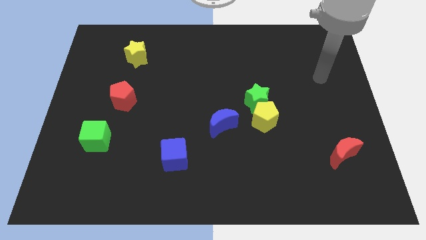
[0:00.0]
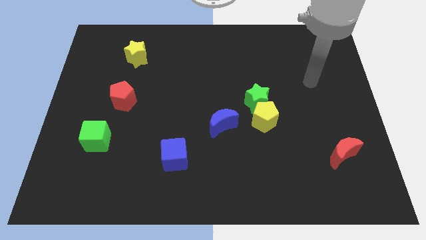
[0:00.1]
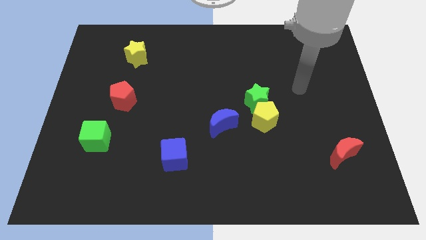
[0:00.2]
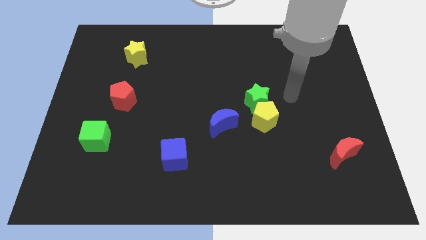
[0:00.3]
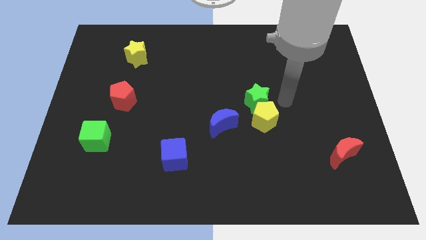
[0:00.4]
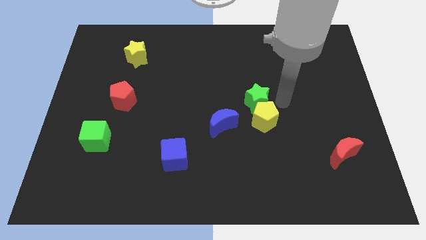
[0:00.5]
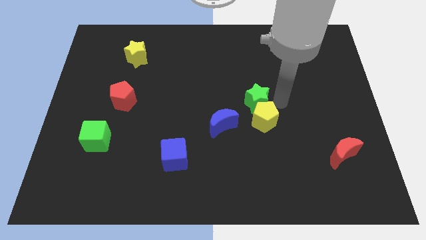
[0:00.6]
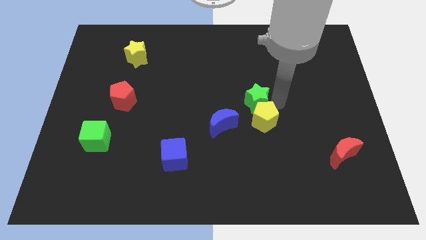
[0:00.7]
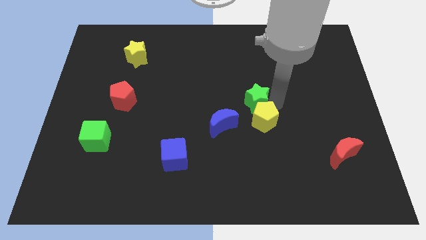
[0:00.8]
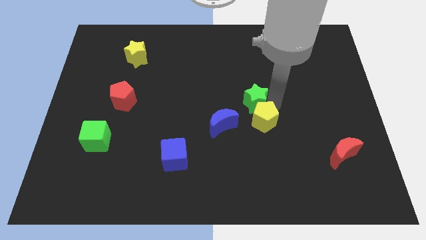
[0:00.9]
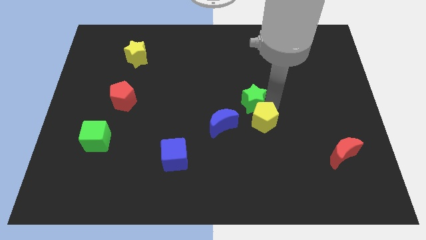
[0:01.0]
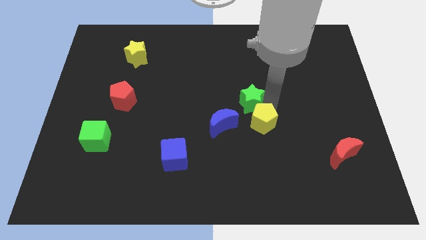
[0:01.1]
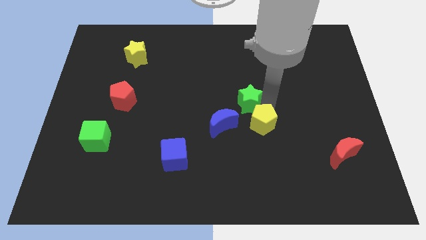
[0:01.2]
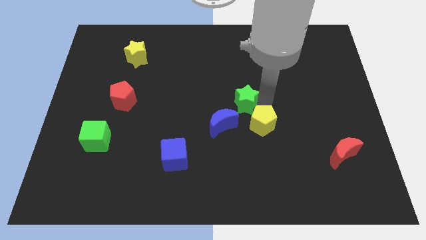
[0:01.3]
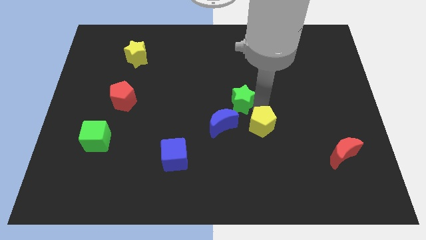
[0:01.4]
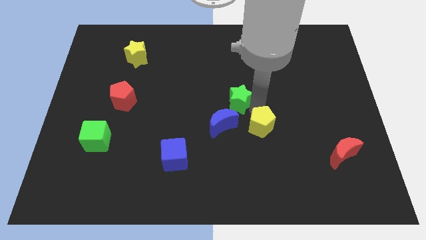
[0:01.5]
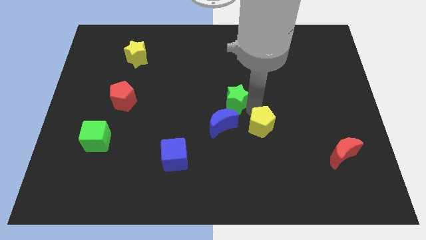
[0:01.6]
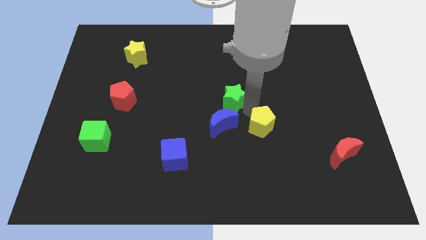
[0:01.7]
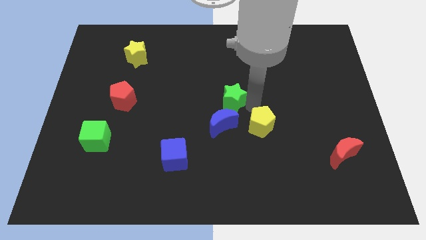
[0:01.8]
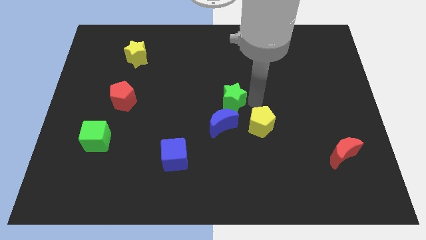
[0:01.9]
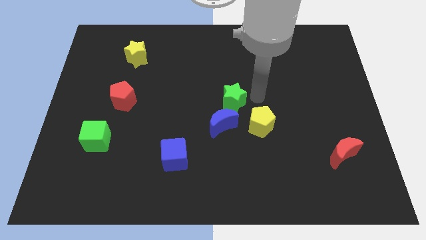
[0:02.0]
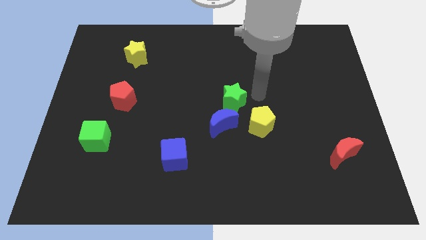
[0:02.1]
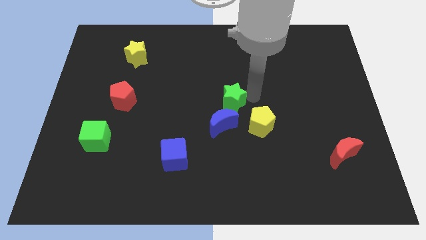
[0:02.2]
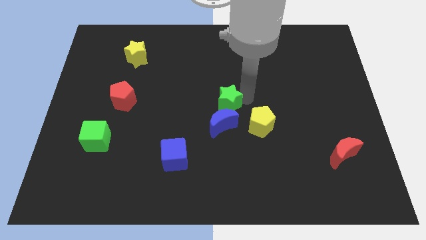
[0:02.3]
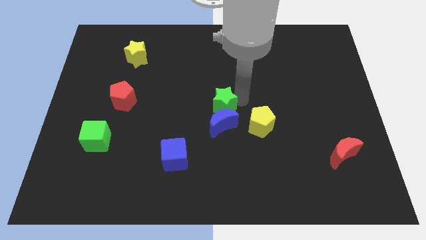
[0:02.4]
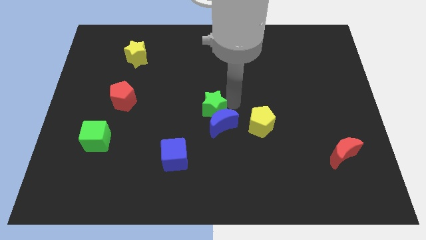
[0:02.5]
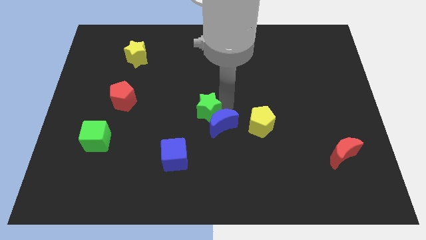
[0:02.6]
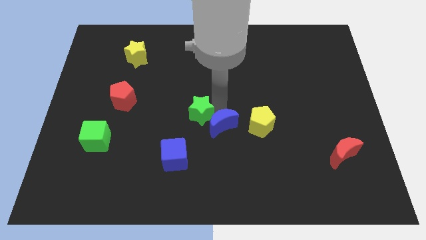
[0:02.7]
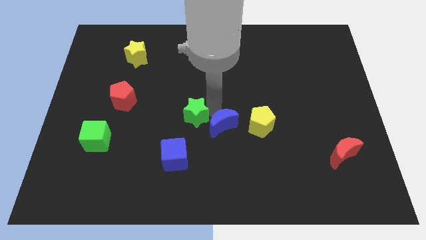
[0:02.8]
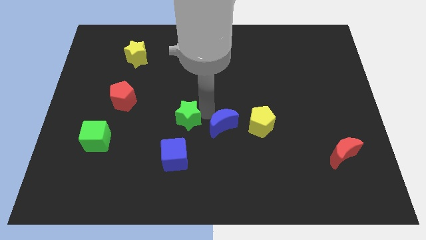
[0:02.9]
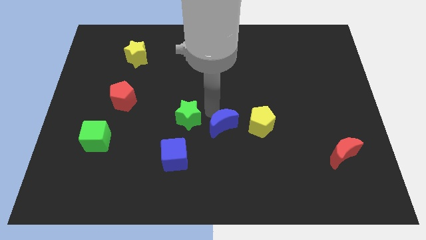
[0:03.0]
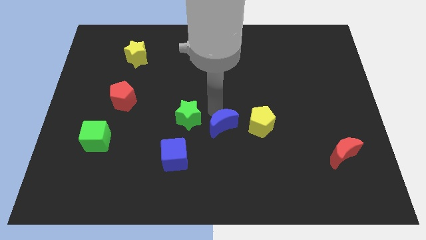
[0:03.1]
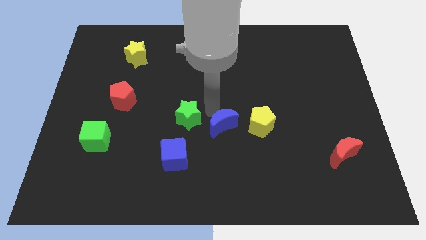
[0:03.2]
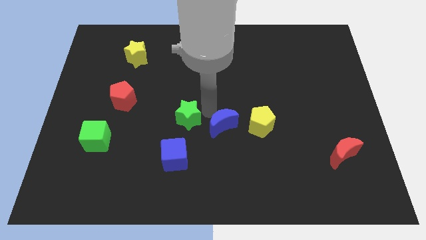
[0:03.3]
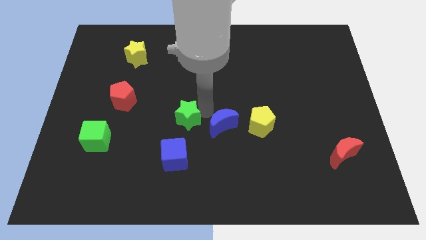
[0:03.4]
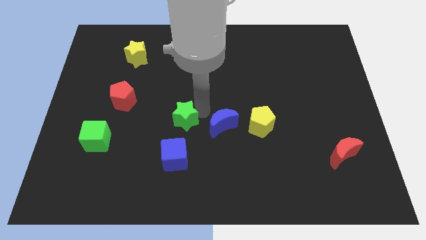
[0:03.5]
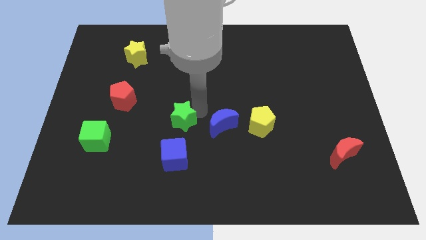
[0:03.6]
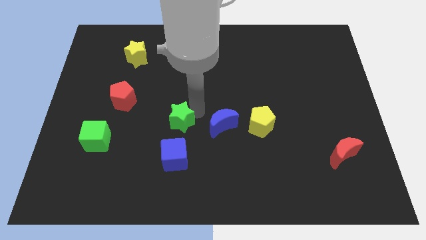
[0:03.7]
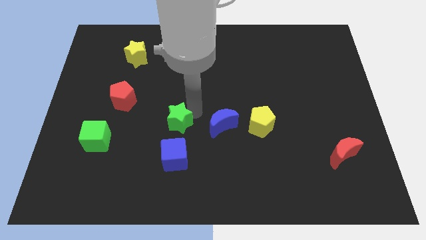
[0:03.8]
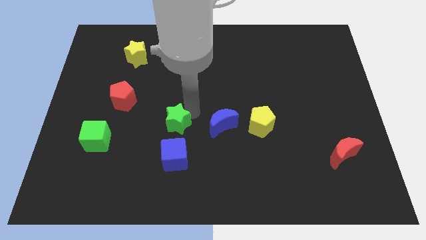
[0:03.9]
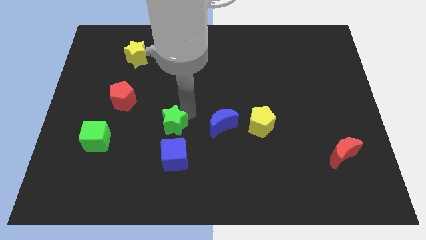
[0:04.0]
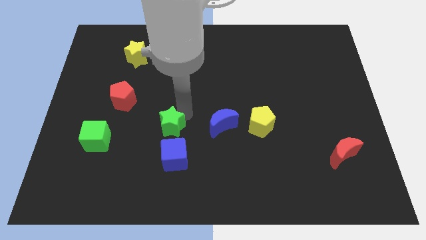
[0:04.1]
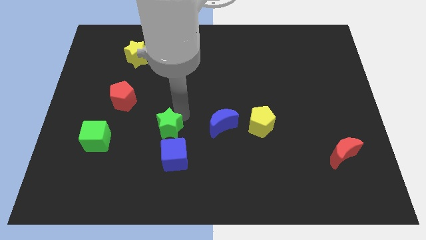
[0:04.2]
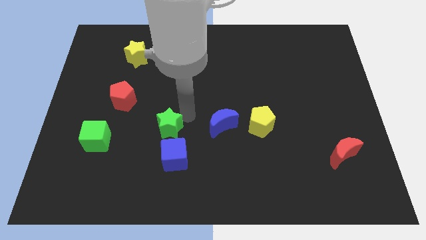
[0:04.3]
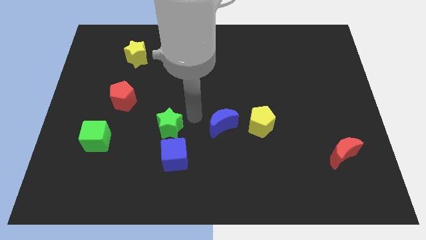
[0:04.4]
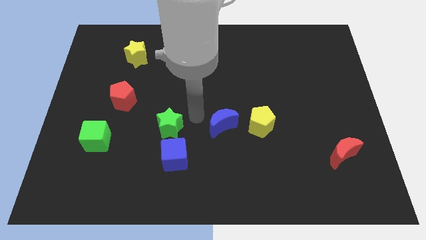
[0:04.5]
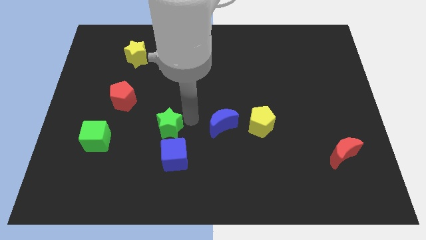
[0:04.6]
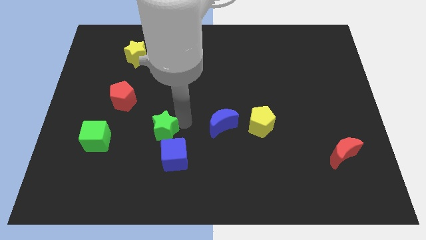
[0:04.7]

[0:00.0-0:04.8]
push the green star to the right side of the green cube

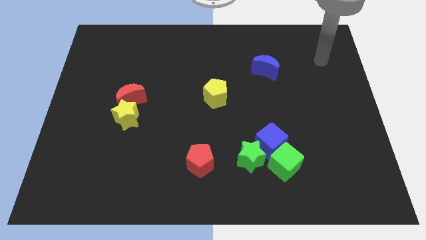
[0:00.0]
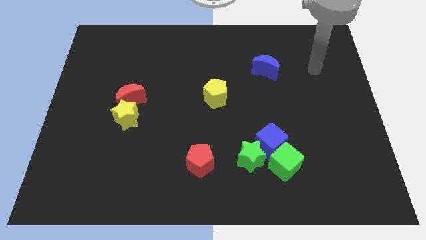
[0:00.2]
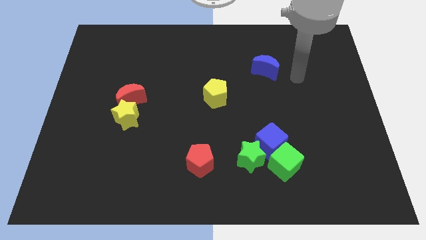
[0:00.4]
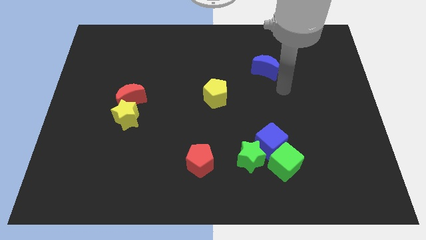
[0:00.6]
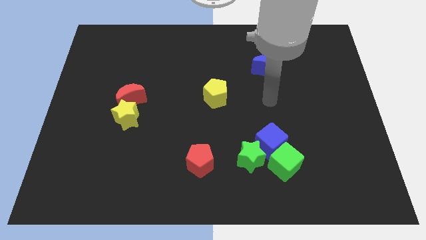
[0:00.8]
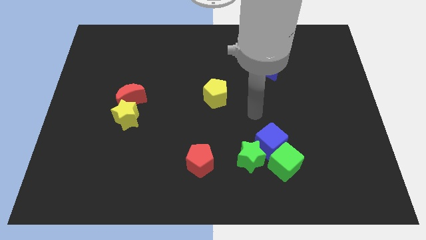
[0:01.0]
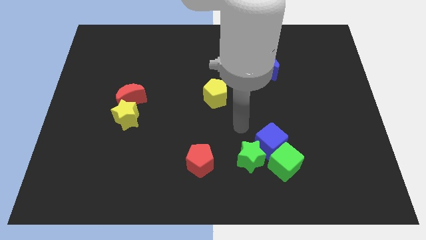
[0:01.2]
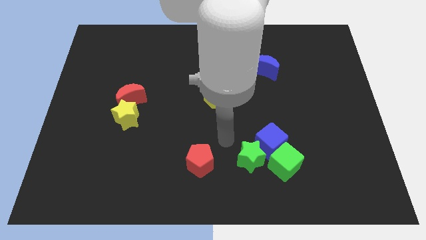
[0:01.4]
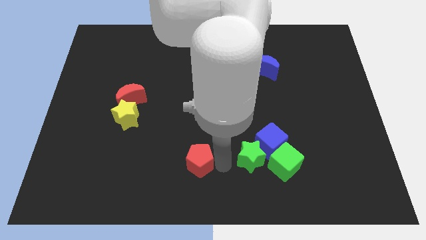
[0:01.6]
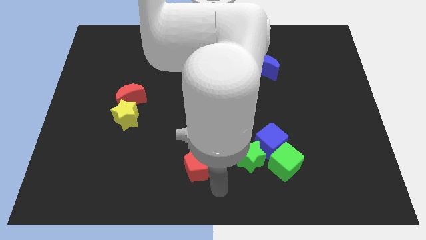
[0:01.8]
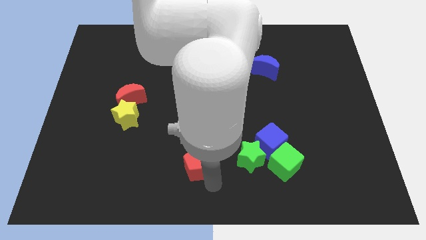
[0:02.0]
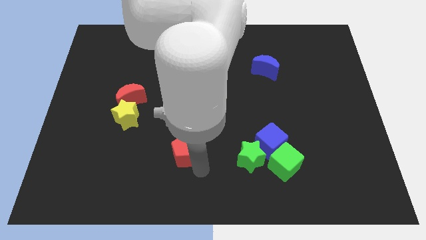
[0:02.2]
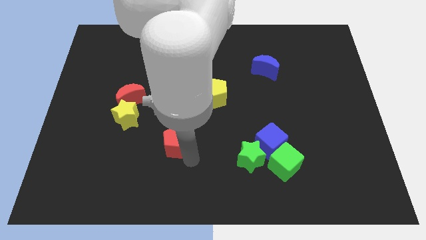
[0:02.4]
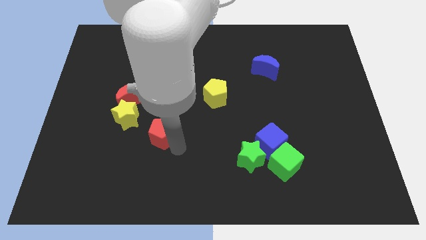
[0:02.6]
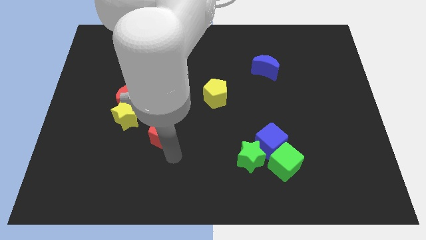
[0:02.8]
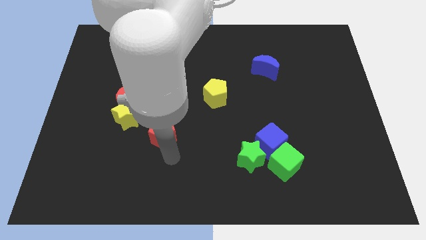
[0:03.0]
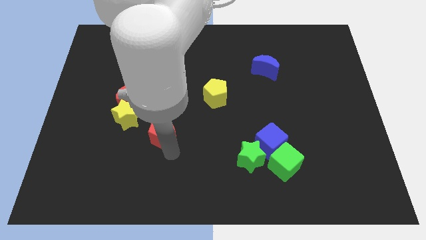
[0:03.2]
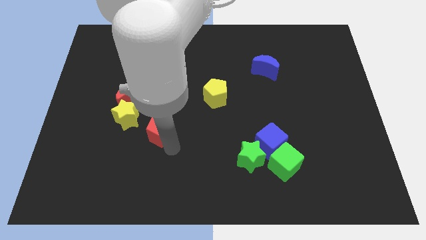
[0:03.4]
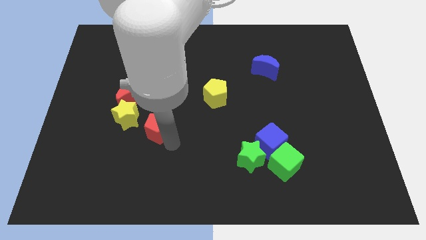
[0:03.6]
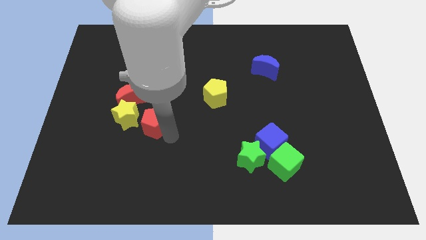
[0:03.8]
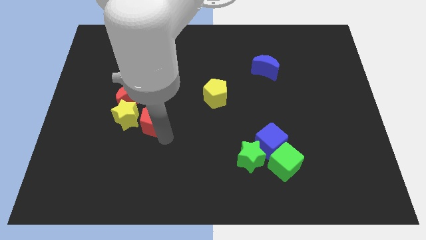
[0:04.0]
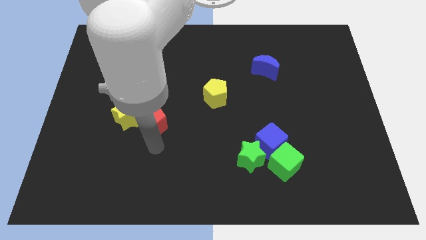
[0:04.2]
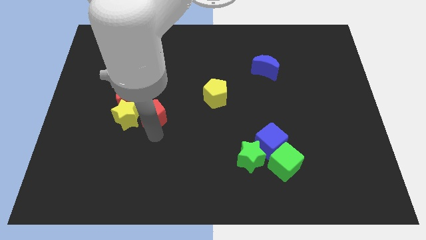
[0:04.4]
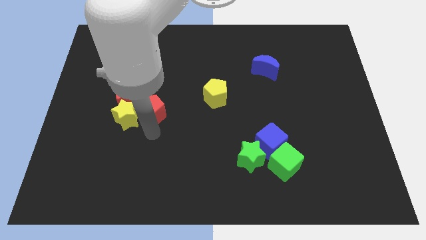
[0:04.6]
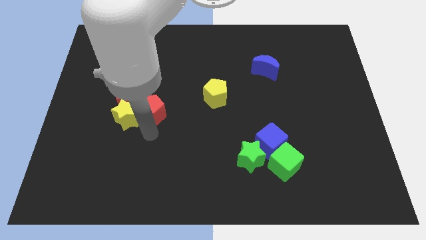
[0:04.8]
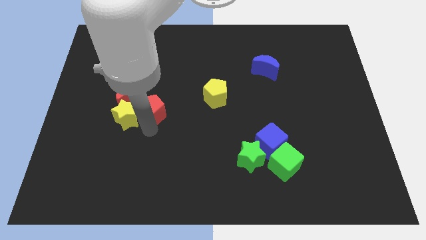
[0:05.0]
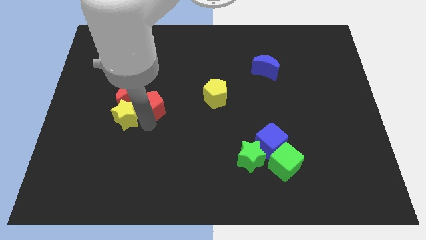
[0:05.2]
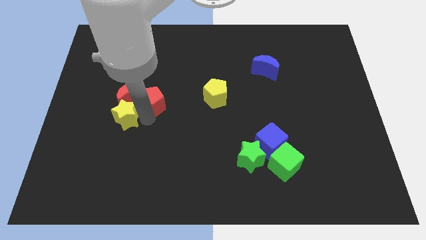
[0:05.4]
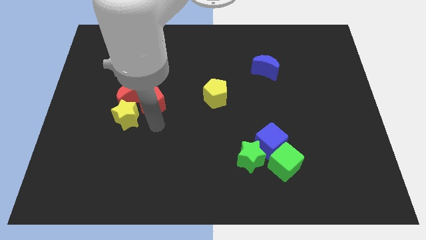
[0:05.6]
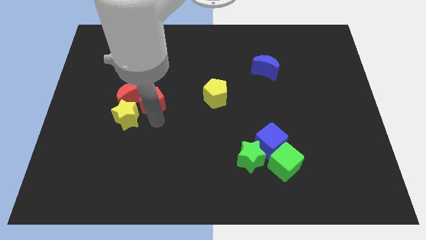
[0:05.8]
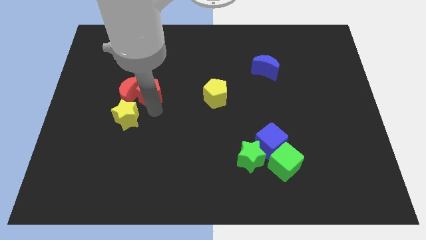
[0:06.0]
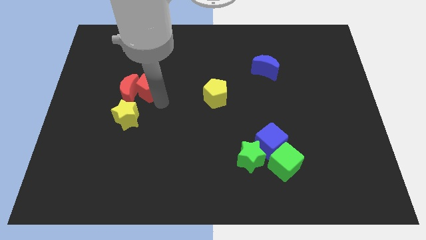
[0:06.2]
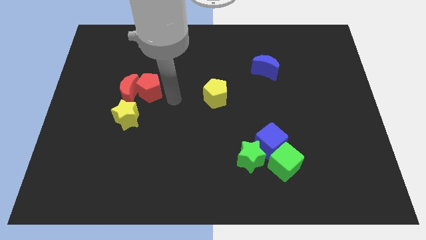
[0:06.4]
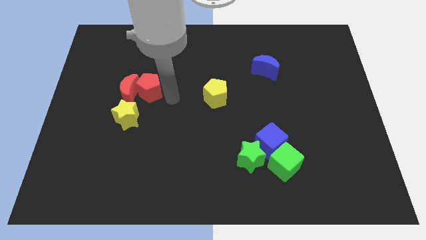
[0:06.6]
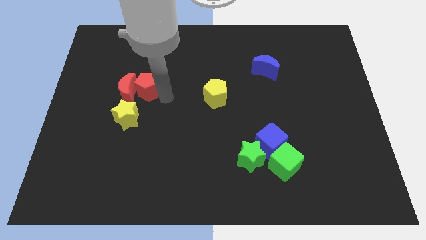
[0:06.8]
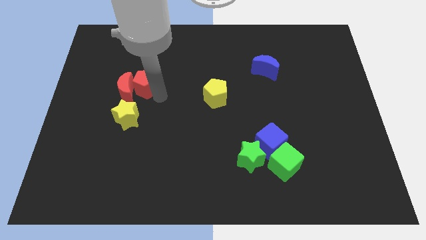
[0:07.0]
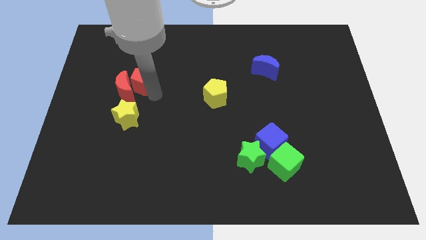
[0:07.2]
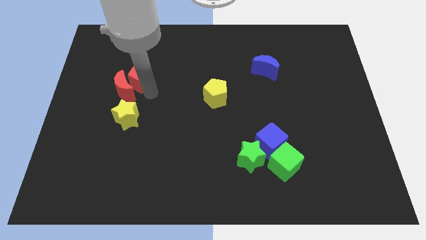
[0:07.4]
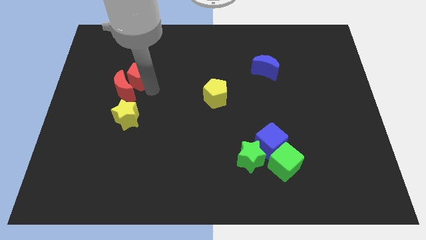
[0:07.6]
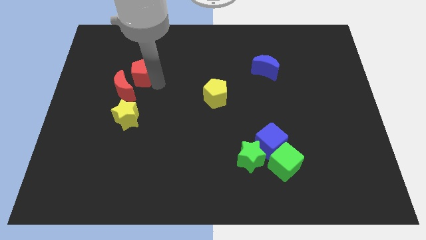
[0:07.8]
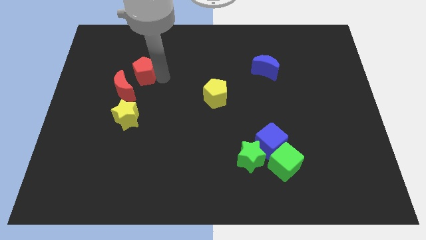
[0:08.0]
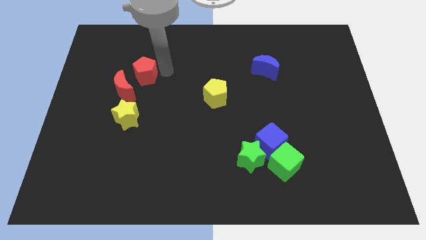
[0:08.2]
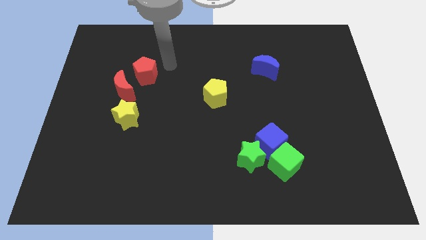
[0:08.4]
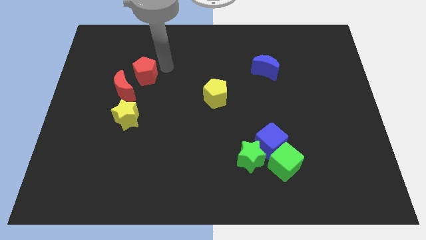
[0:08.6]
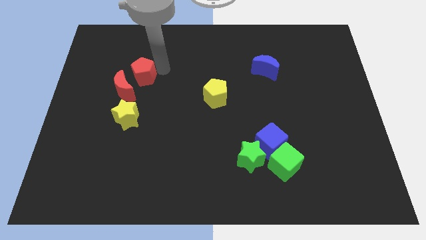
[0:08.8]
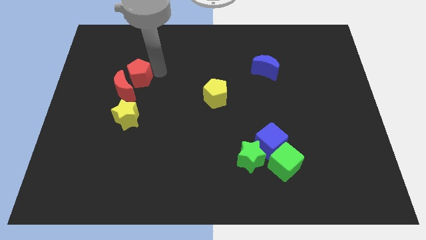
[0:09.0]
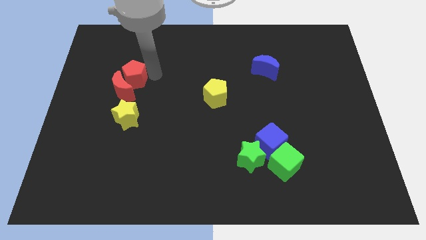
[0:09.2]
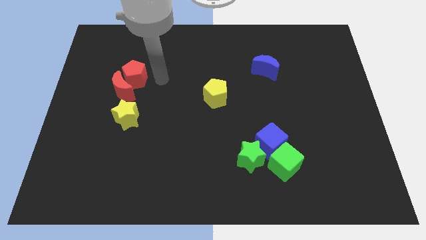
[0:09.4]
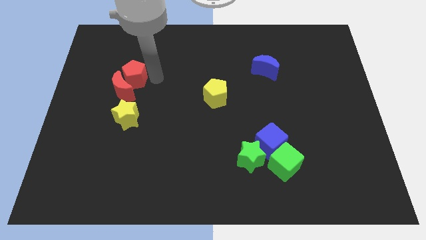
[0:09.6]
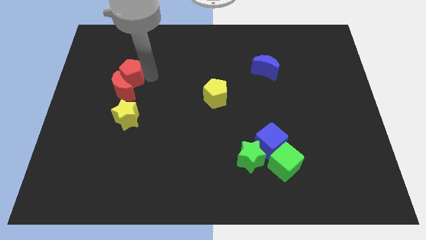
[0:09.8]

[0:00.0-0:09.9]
put the red pentagon diagonally up and to the left of the red moon
